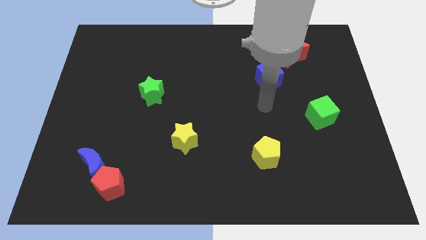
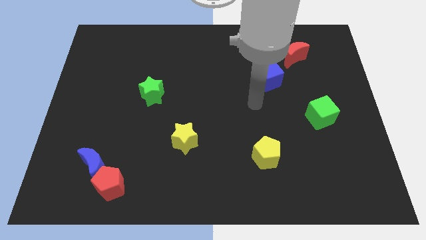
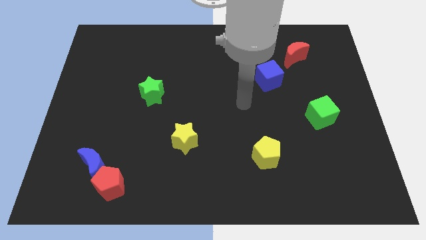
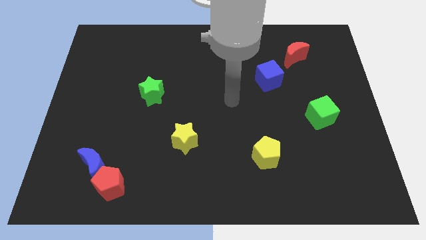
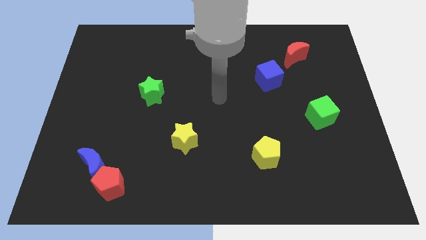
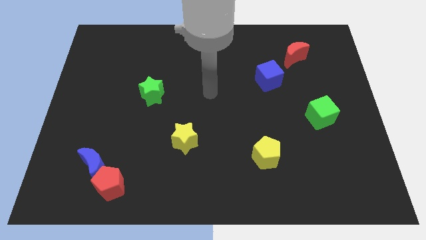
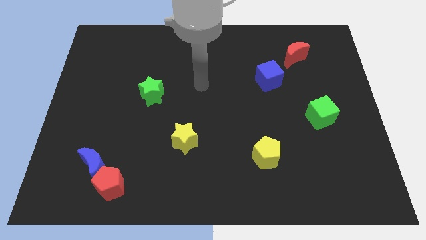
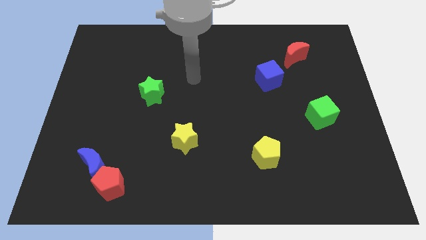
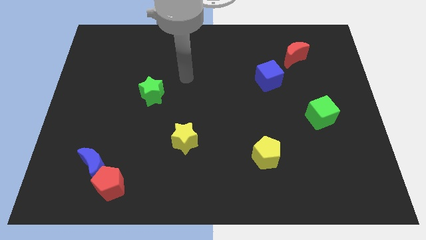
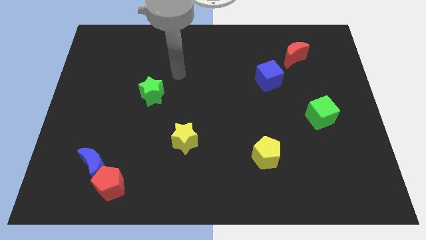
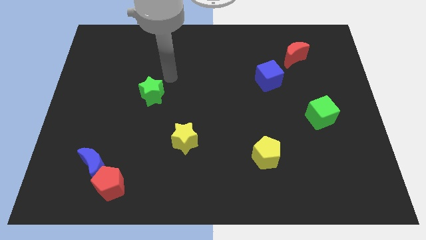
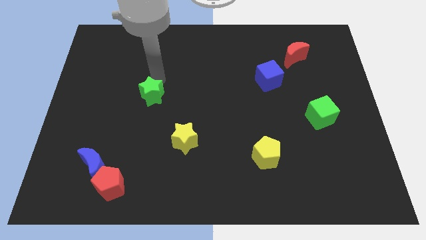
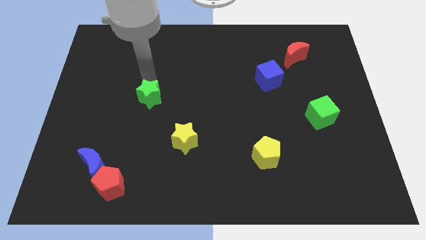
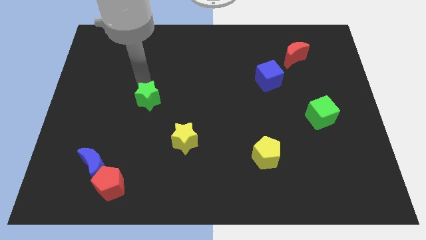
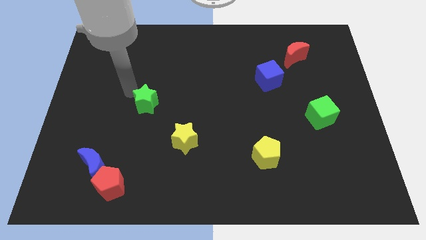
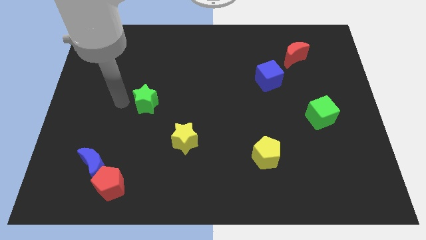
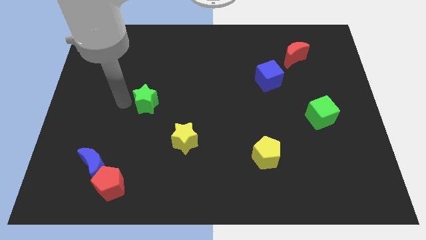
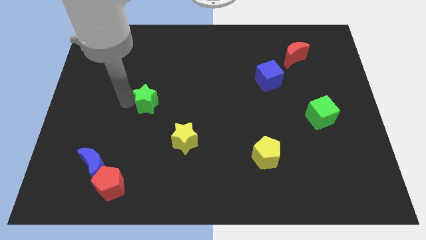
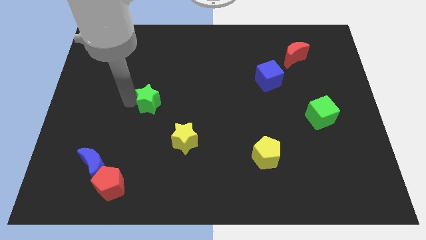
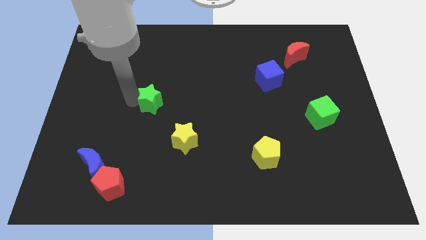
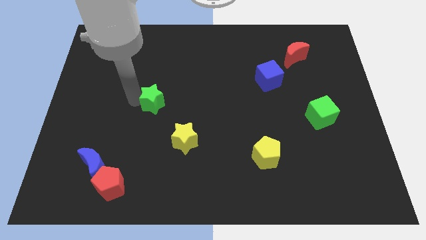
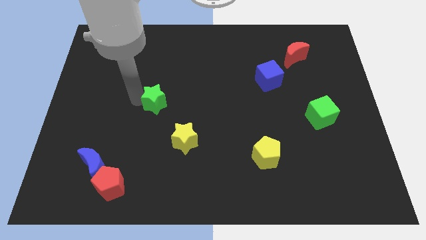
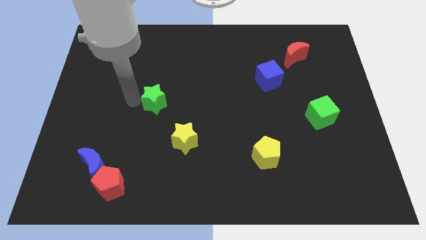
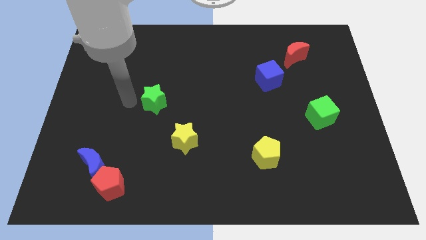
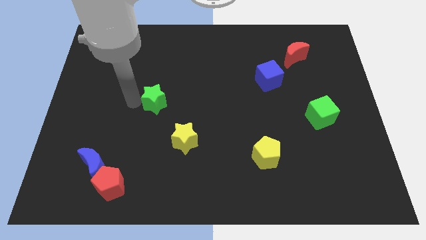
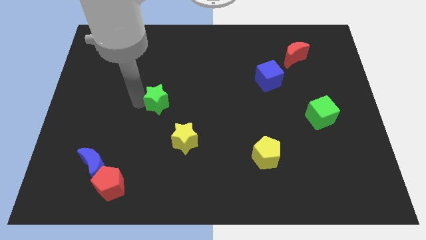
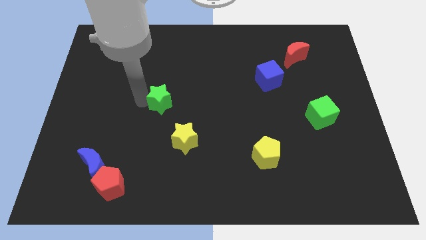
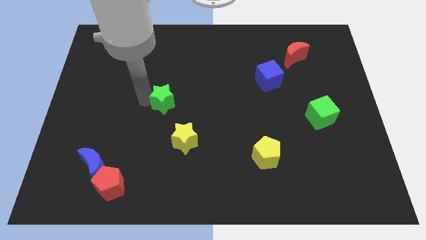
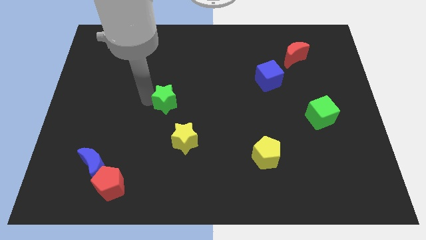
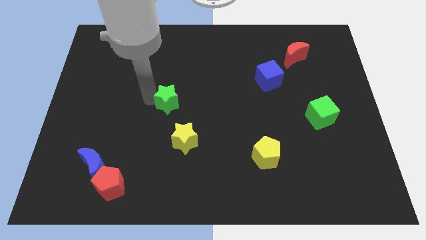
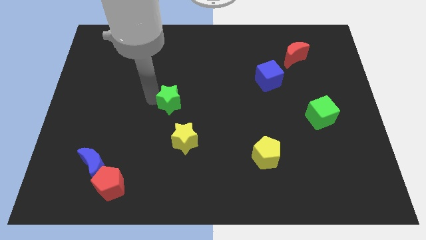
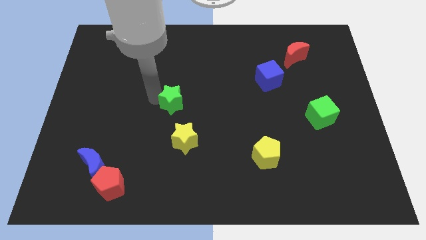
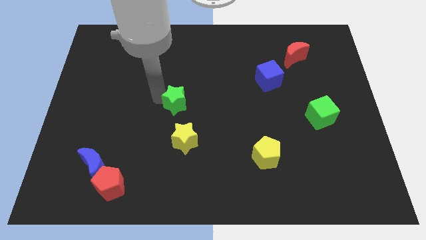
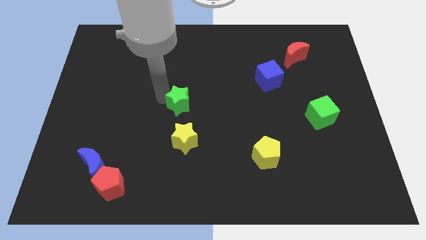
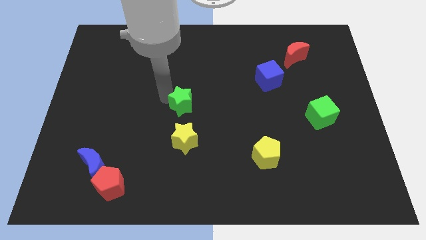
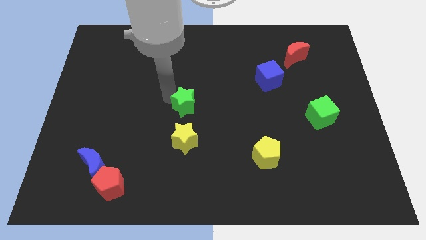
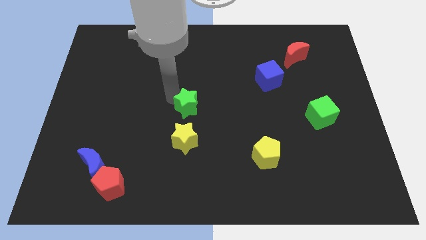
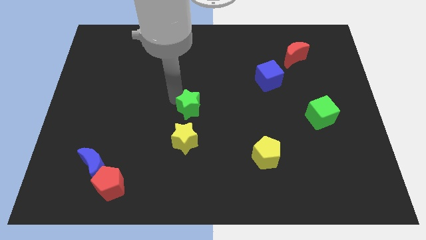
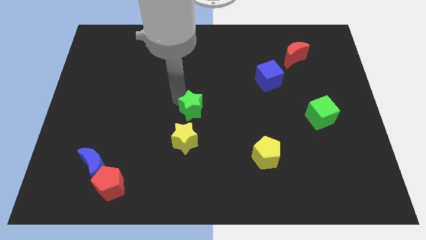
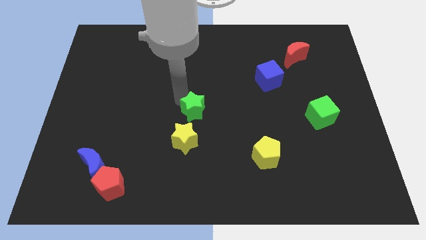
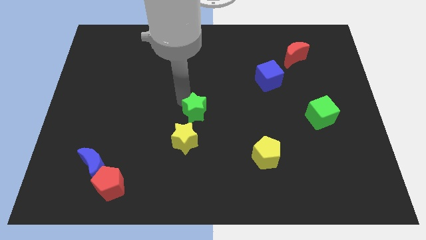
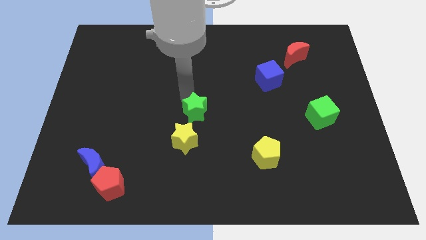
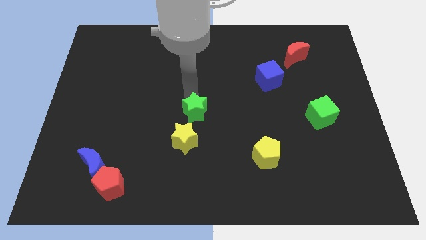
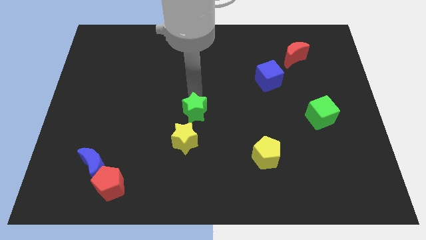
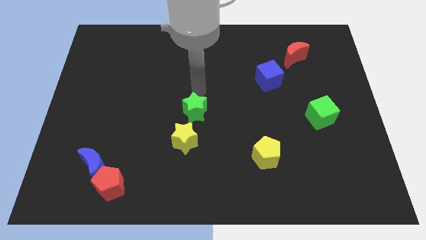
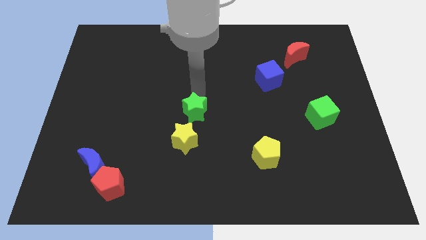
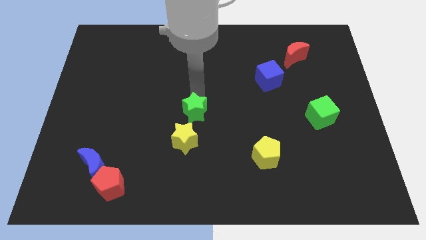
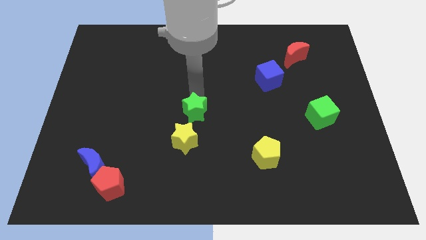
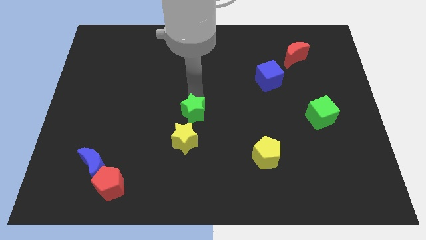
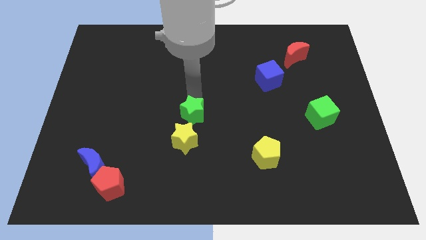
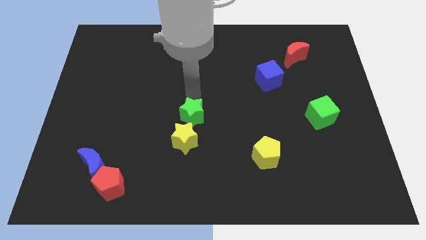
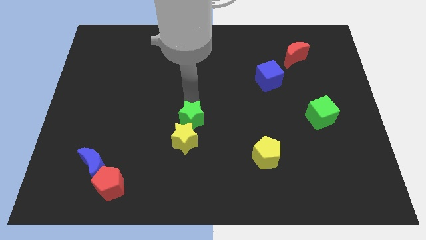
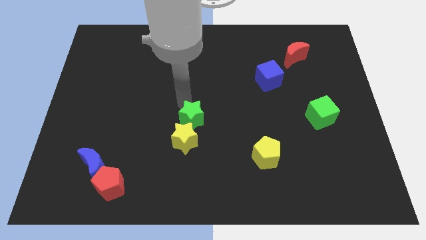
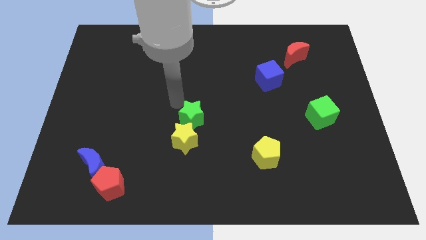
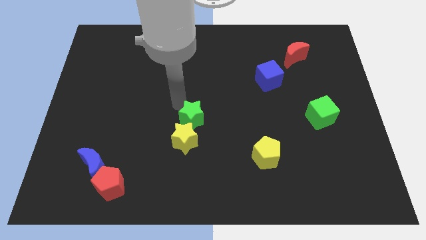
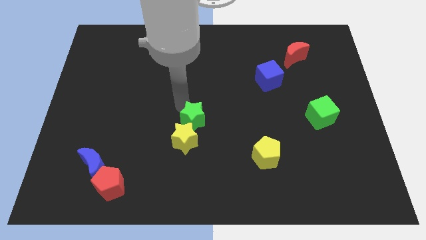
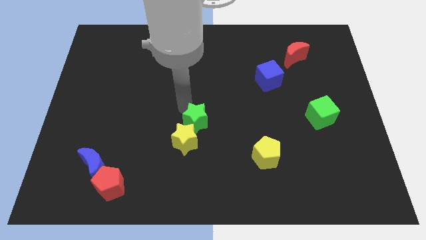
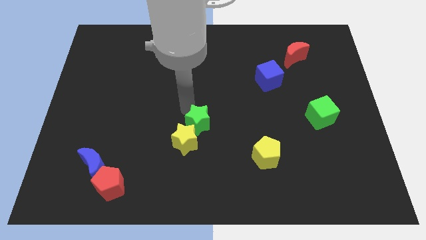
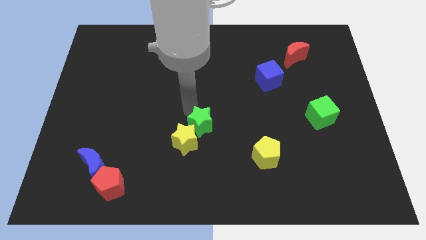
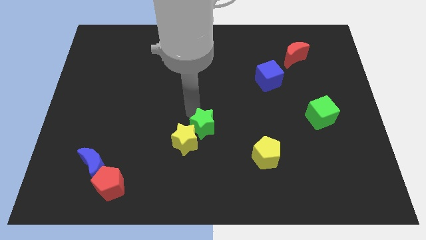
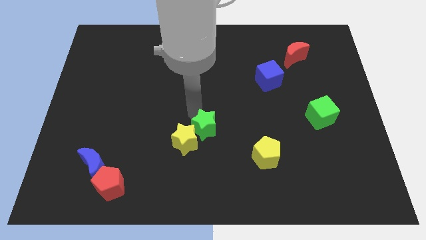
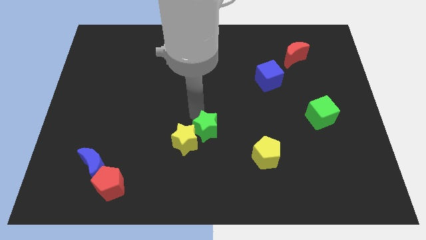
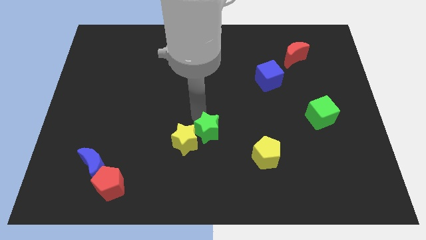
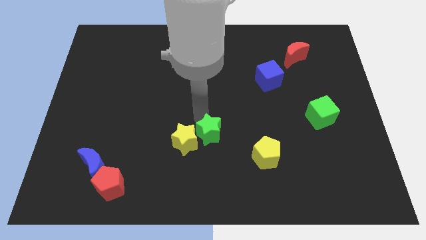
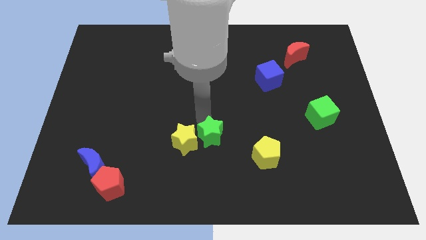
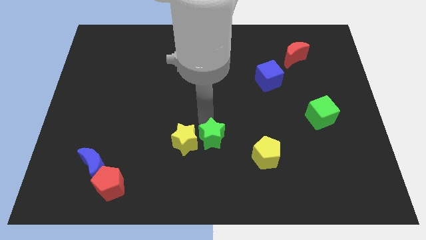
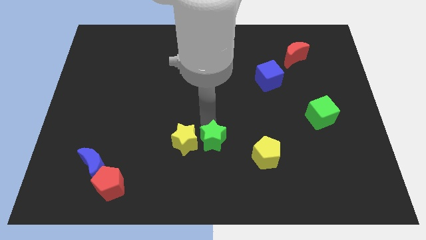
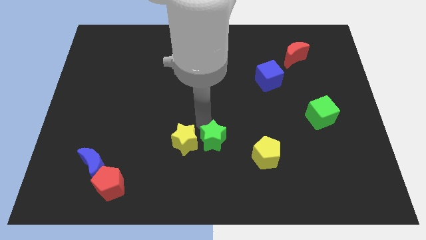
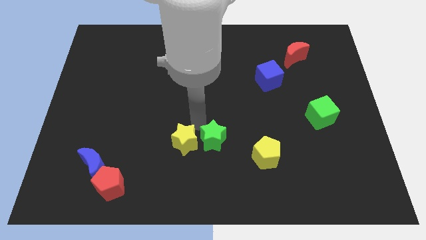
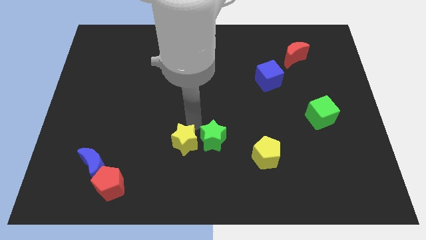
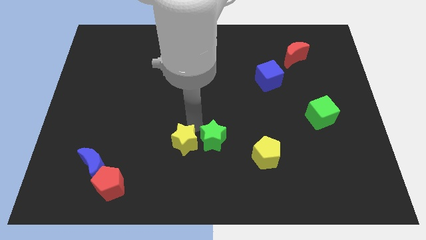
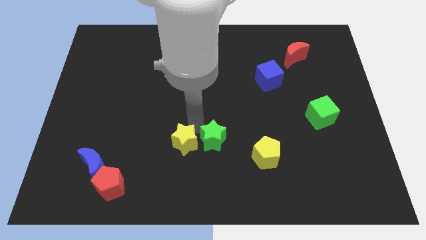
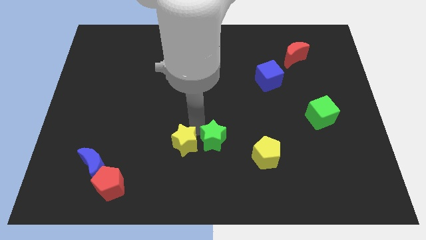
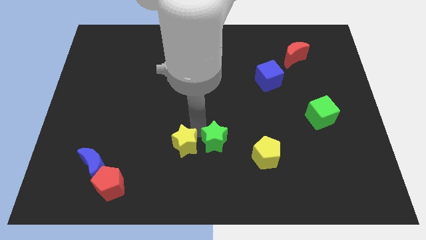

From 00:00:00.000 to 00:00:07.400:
push the green star down and to the right diagonally

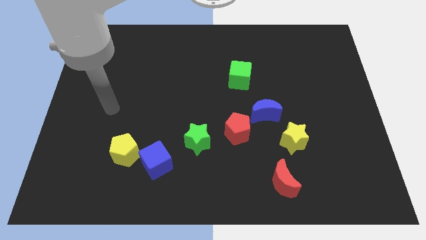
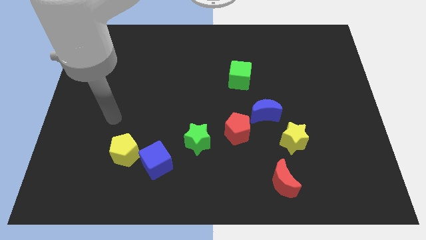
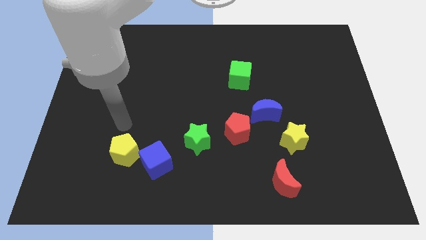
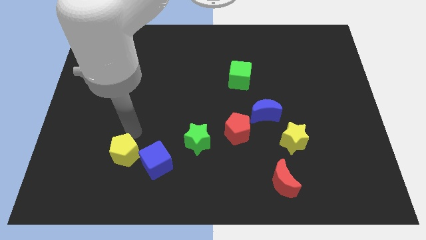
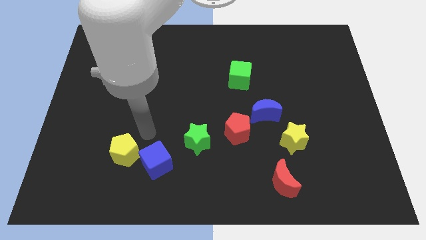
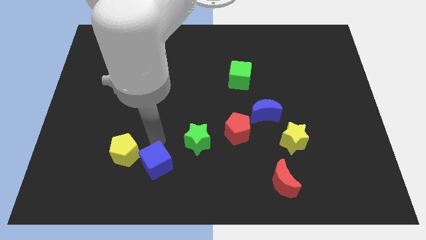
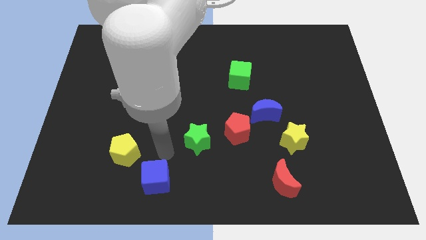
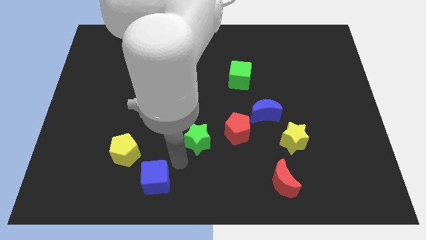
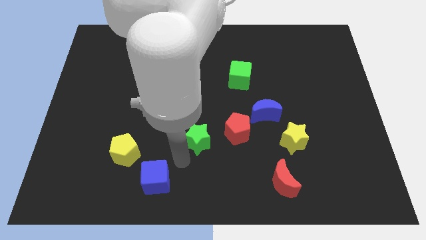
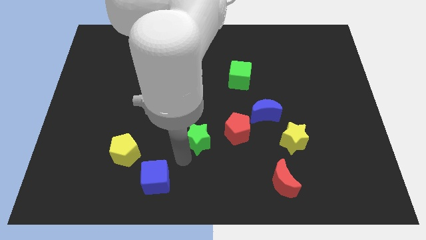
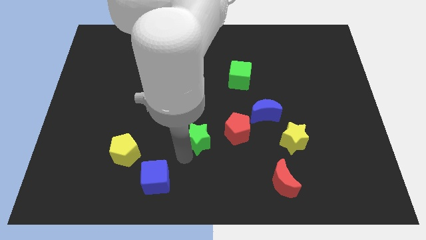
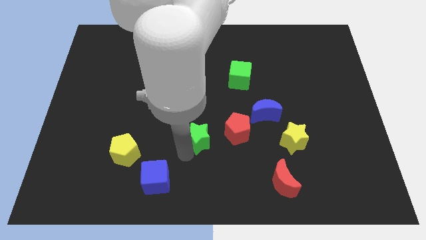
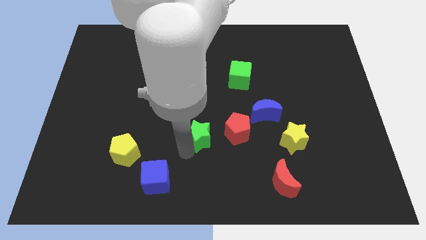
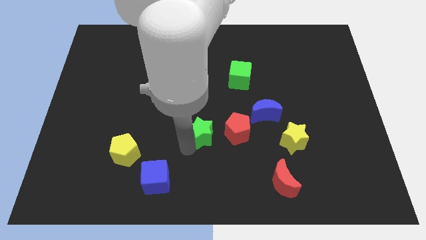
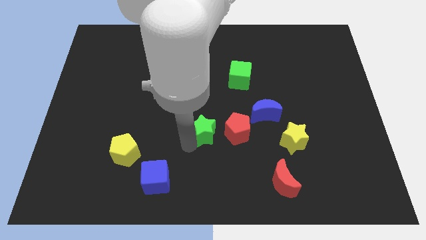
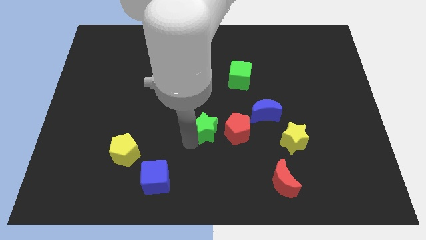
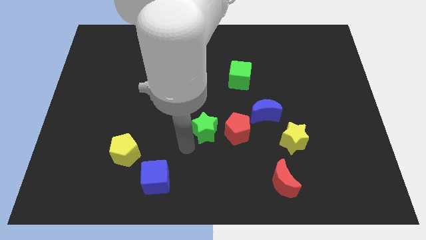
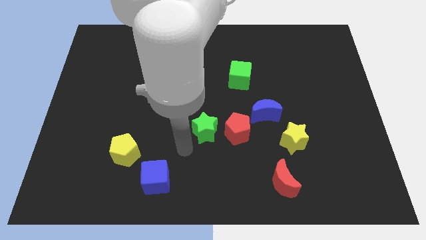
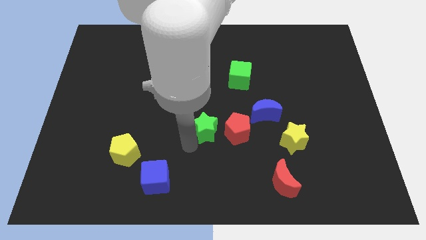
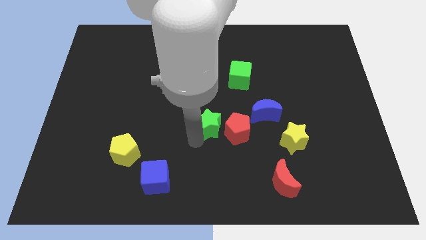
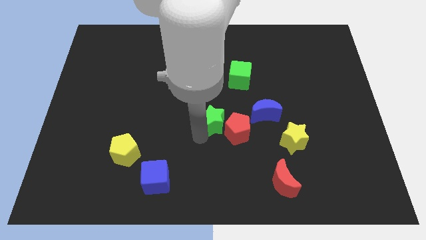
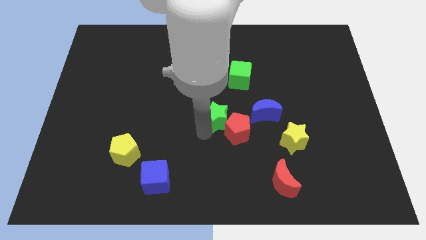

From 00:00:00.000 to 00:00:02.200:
push the green star up and right a bit
